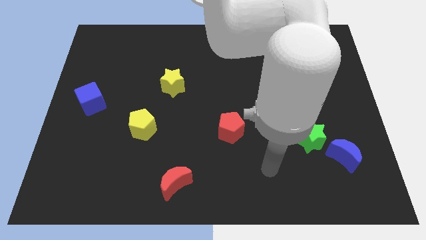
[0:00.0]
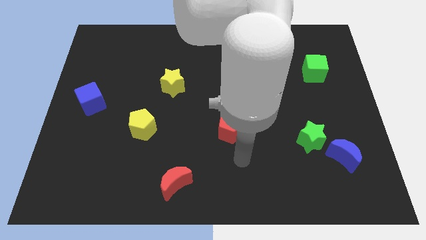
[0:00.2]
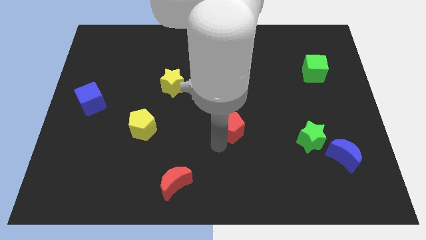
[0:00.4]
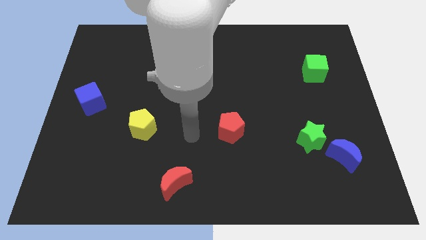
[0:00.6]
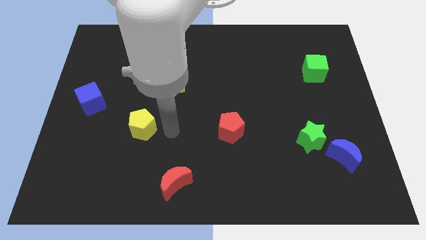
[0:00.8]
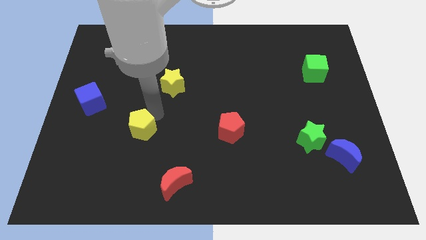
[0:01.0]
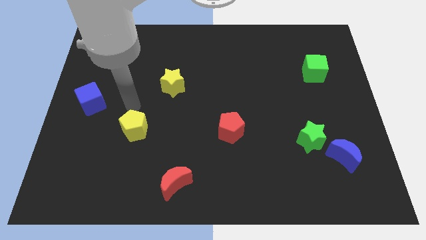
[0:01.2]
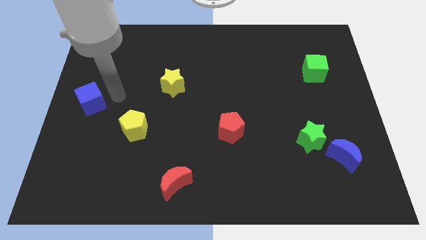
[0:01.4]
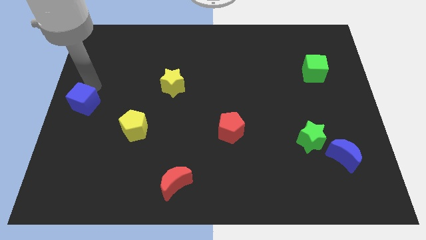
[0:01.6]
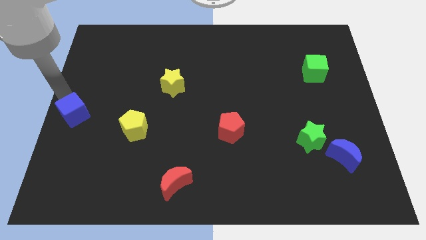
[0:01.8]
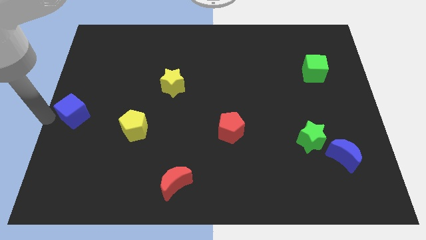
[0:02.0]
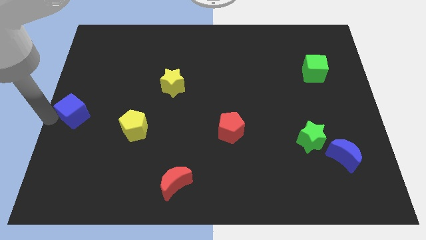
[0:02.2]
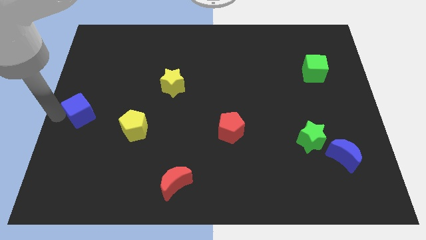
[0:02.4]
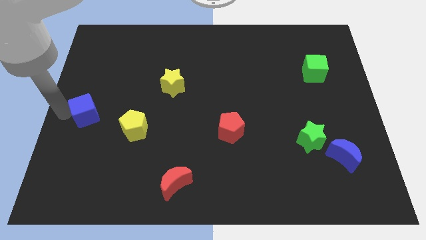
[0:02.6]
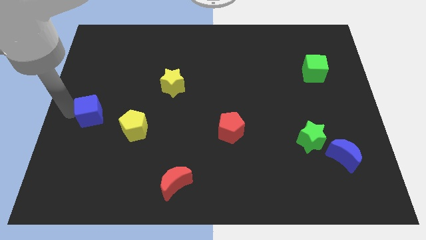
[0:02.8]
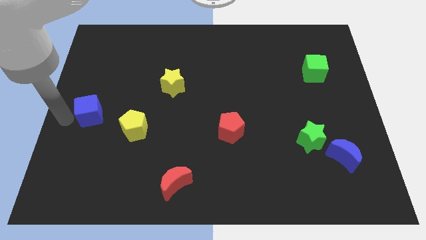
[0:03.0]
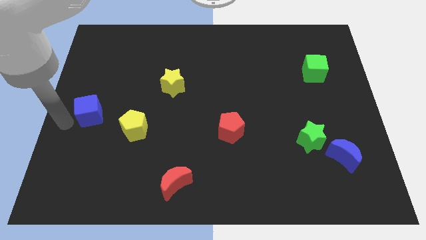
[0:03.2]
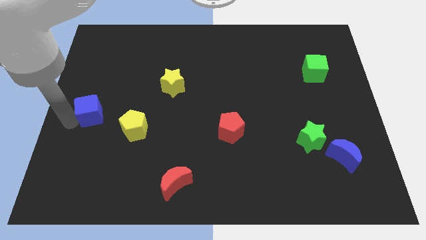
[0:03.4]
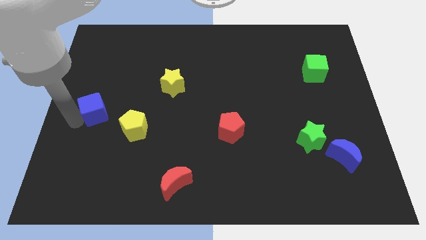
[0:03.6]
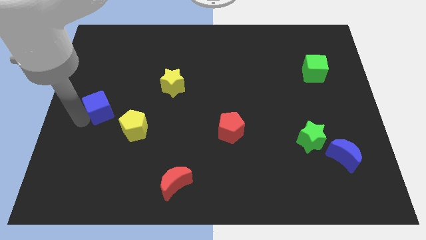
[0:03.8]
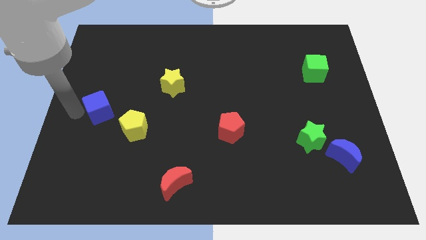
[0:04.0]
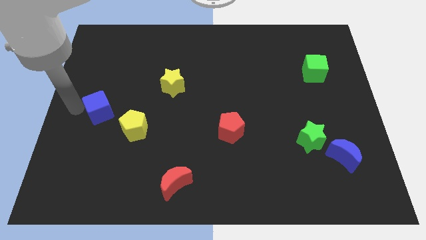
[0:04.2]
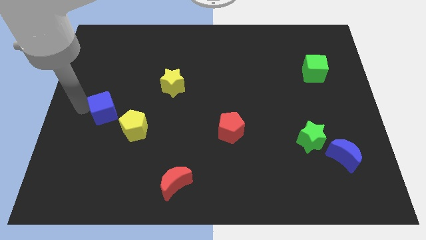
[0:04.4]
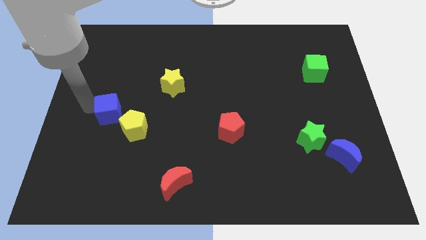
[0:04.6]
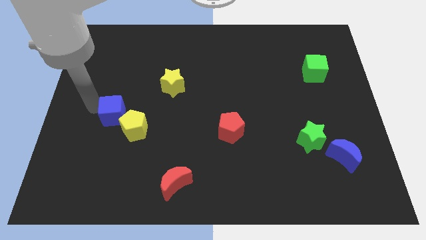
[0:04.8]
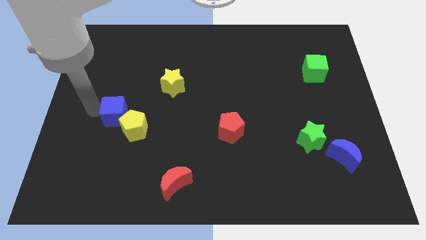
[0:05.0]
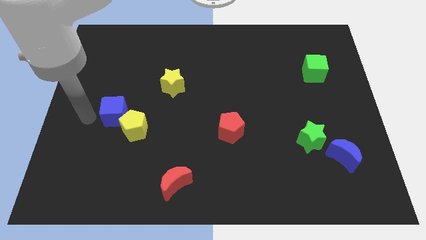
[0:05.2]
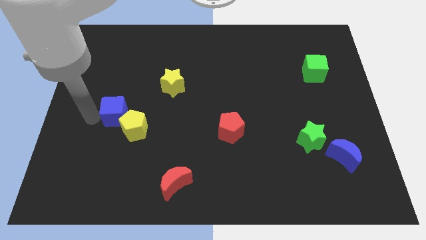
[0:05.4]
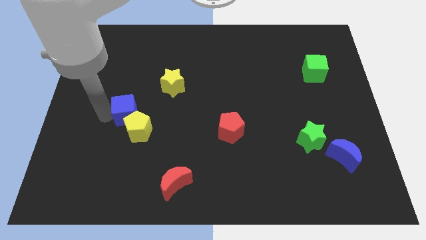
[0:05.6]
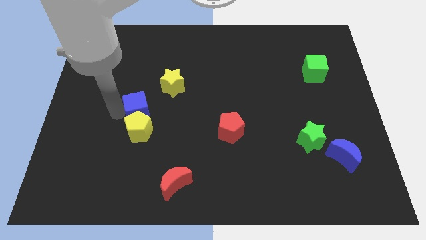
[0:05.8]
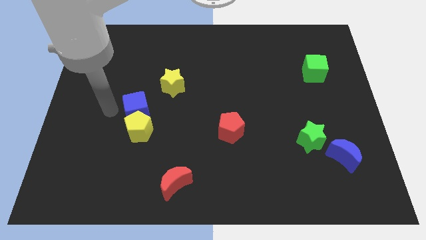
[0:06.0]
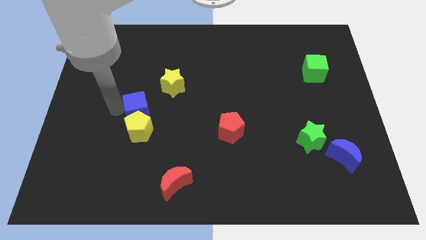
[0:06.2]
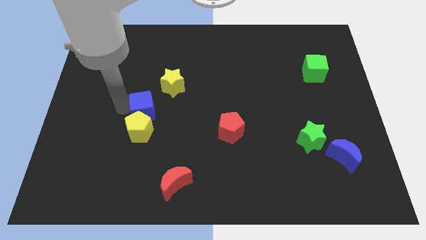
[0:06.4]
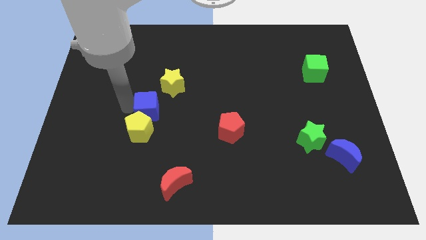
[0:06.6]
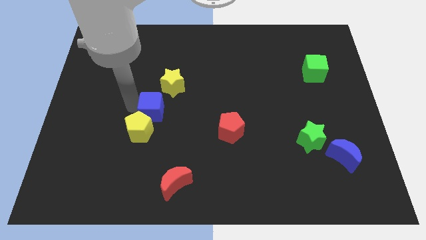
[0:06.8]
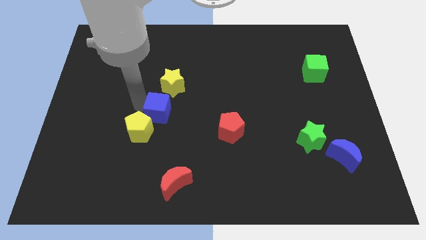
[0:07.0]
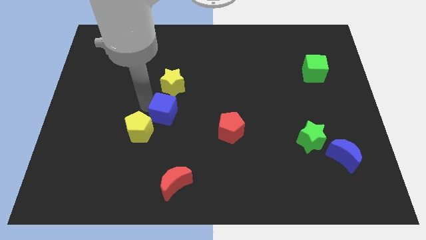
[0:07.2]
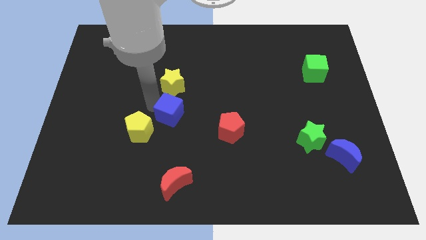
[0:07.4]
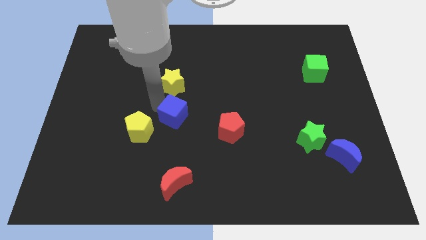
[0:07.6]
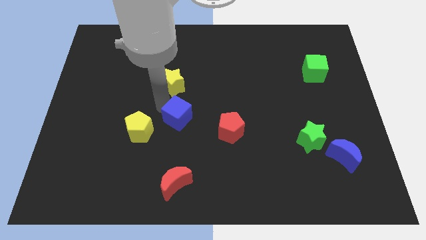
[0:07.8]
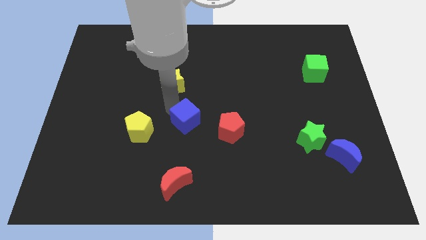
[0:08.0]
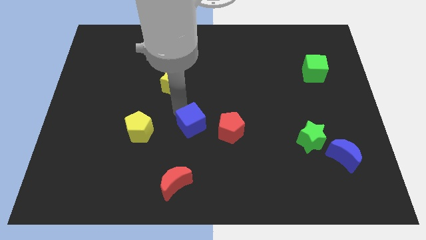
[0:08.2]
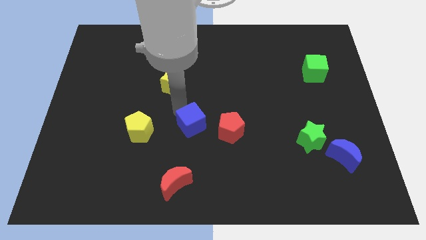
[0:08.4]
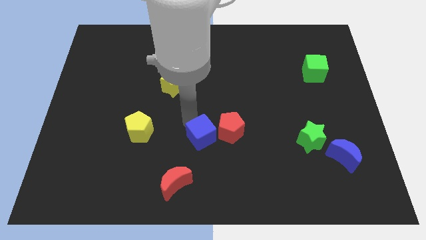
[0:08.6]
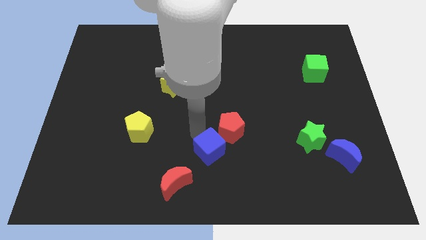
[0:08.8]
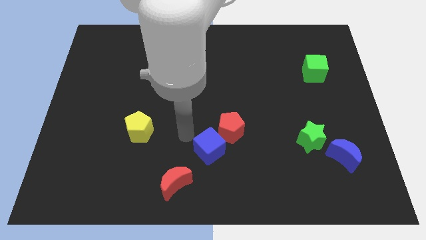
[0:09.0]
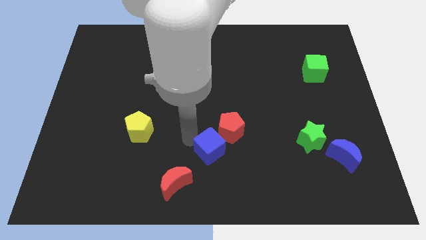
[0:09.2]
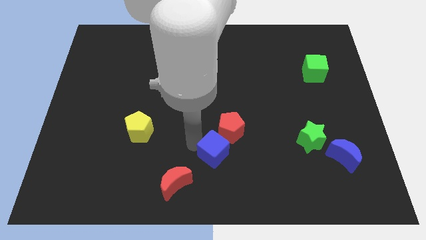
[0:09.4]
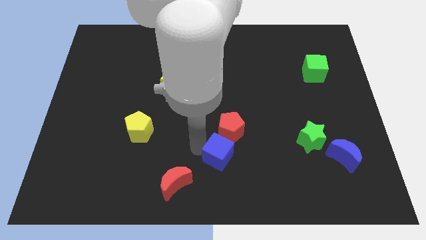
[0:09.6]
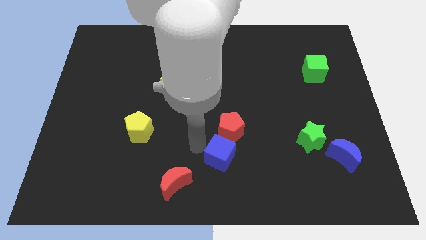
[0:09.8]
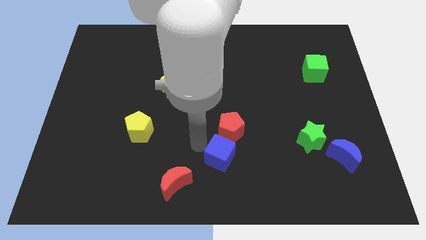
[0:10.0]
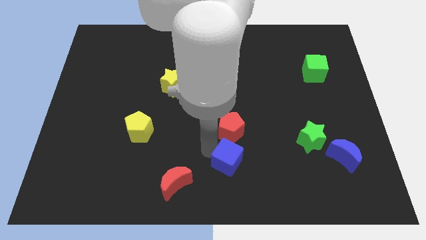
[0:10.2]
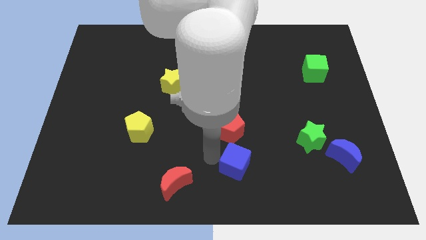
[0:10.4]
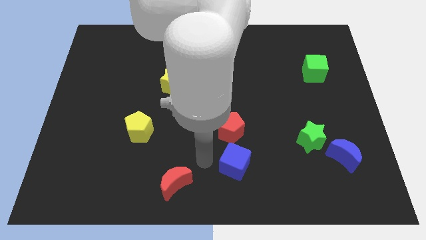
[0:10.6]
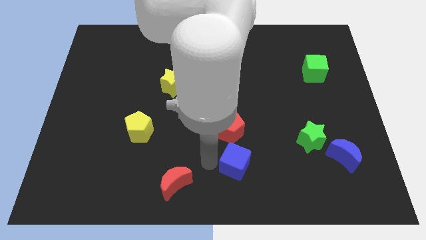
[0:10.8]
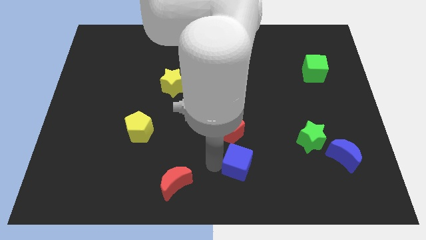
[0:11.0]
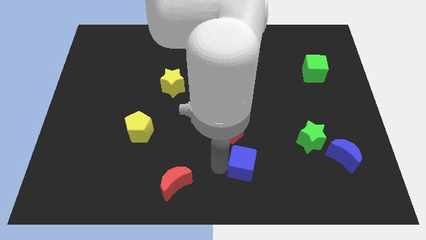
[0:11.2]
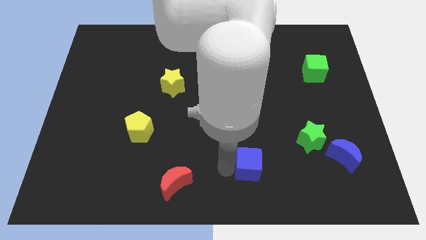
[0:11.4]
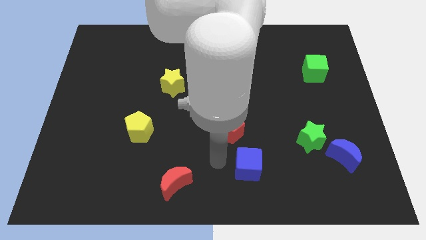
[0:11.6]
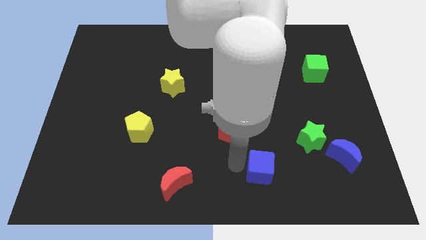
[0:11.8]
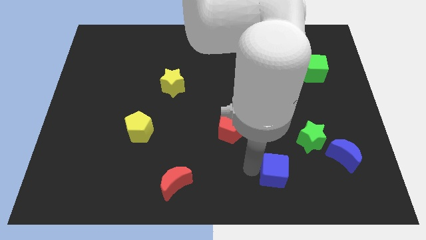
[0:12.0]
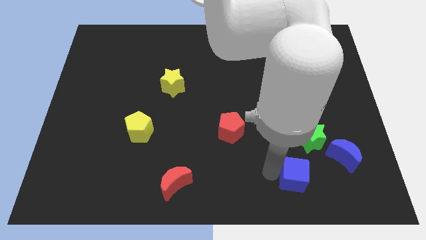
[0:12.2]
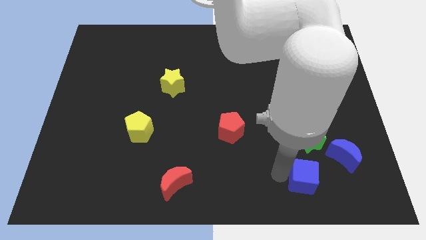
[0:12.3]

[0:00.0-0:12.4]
push the blue cube to the bottom of the green star

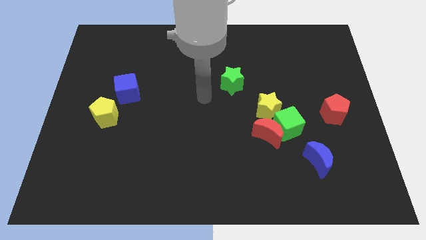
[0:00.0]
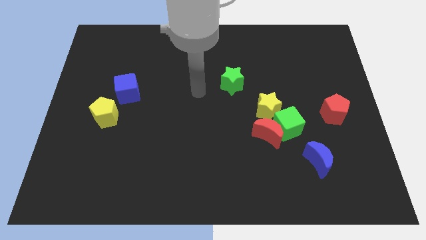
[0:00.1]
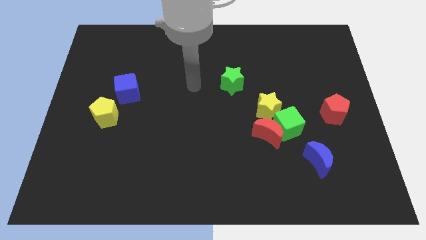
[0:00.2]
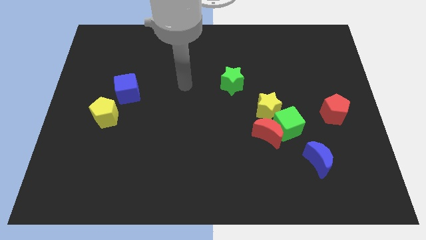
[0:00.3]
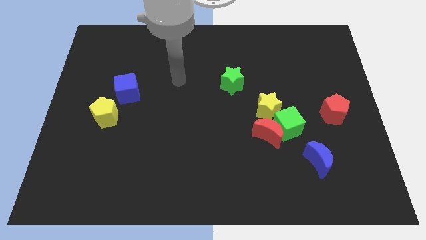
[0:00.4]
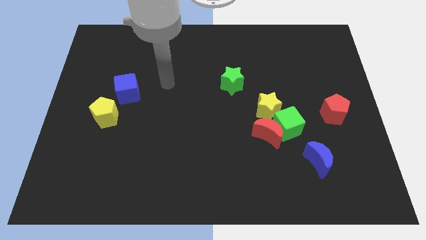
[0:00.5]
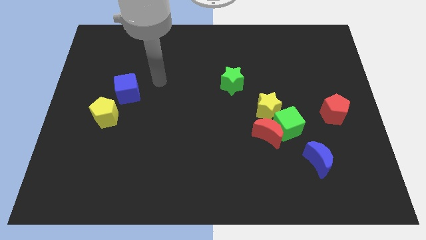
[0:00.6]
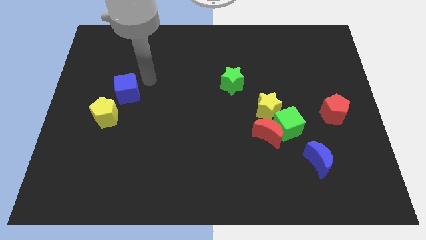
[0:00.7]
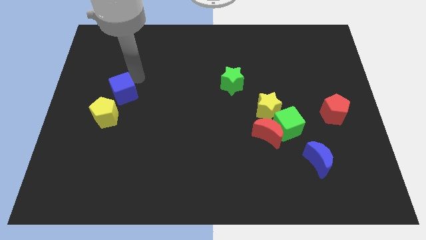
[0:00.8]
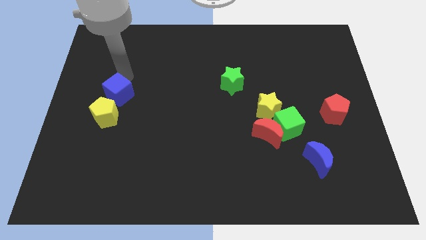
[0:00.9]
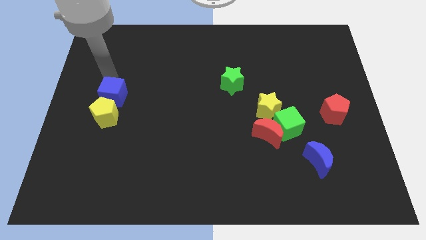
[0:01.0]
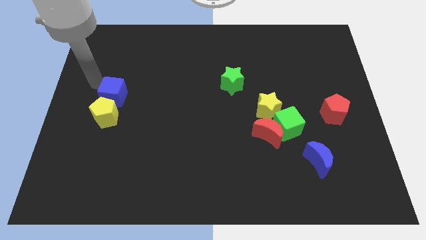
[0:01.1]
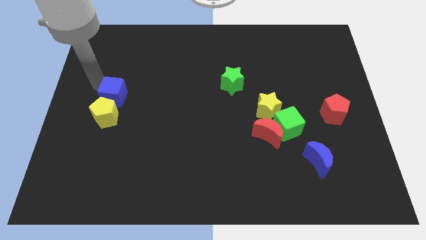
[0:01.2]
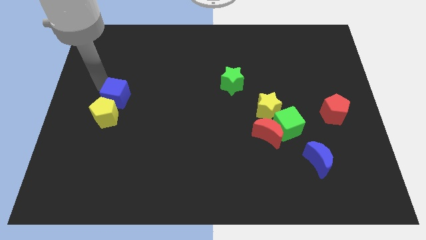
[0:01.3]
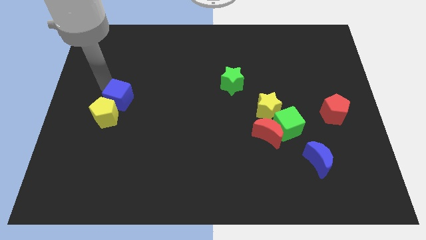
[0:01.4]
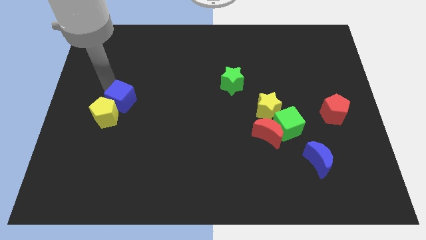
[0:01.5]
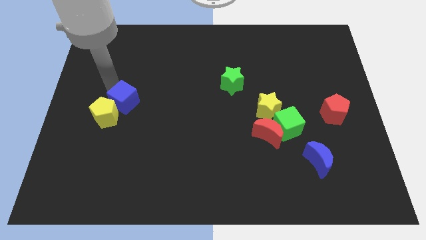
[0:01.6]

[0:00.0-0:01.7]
push the blue cube to the right side of the yellow pentagon

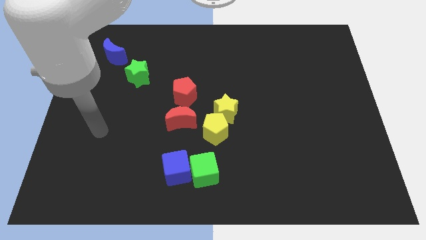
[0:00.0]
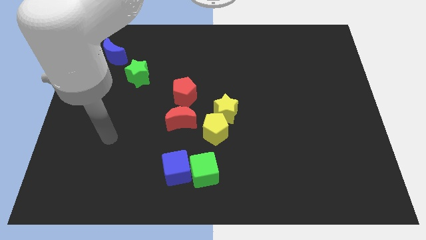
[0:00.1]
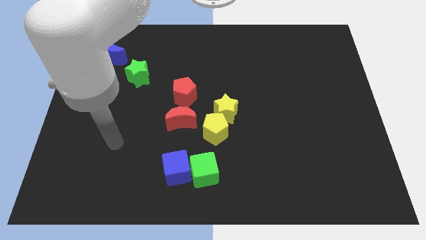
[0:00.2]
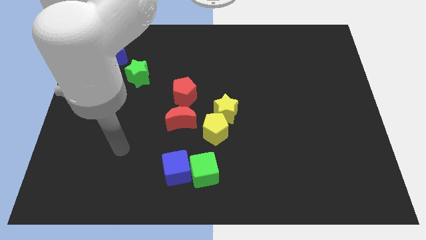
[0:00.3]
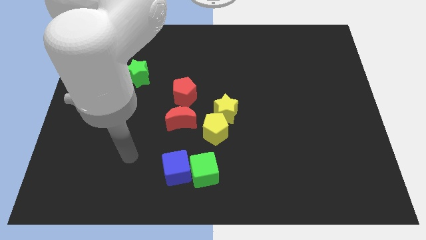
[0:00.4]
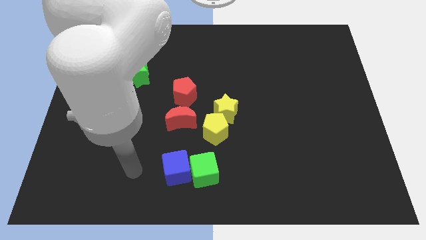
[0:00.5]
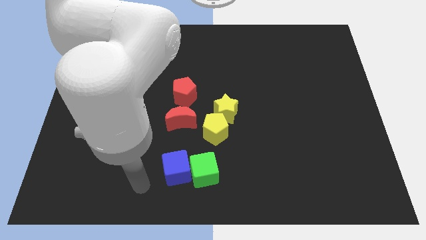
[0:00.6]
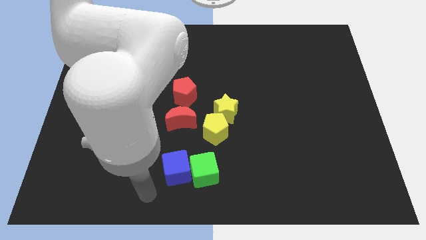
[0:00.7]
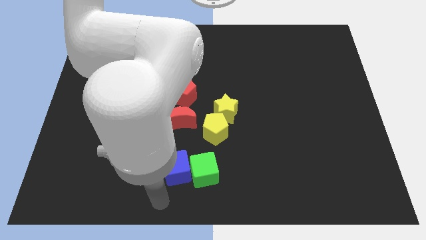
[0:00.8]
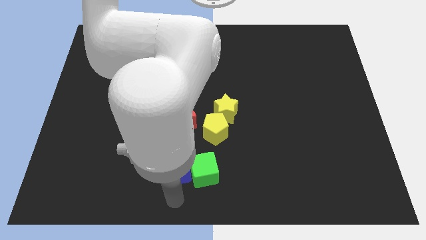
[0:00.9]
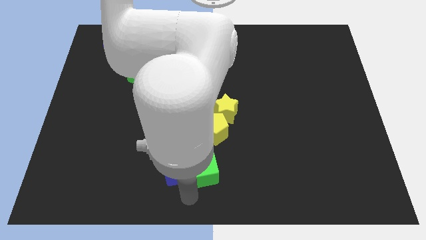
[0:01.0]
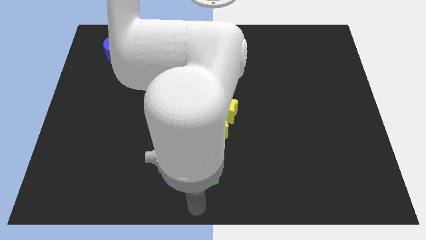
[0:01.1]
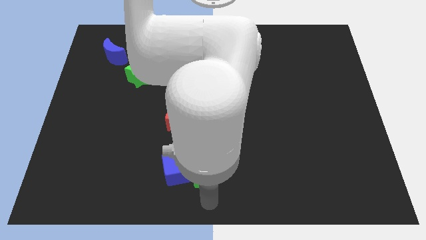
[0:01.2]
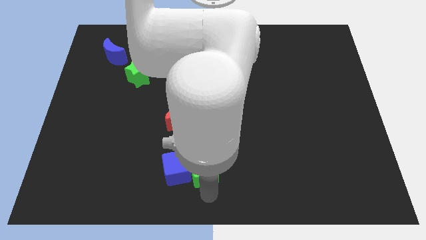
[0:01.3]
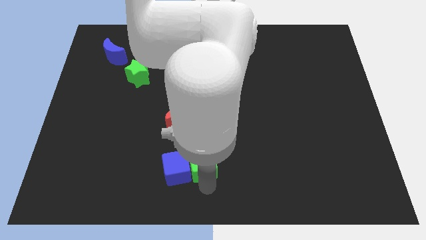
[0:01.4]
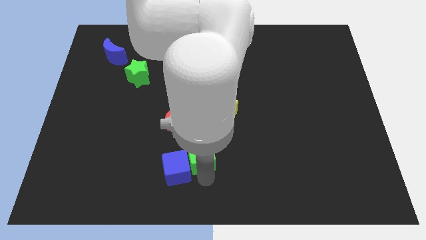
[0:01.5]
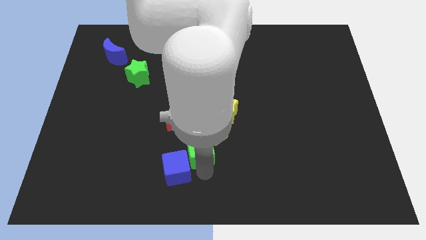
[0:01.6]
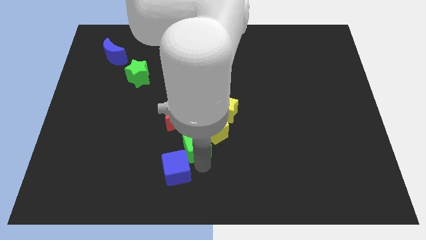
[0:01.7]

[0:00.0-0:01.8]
move the green cube diagonally down and to the left of the yellow star
